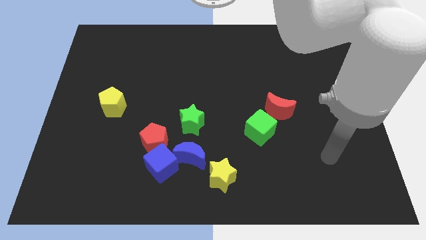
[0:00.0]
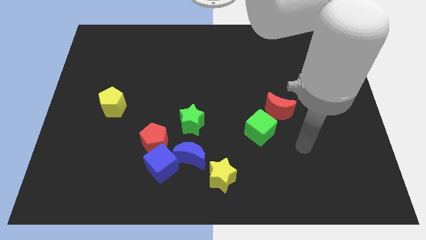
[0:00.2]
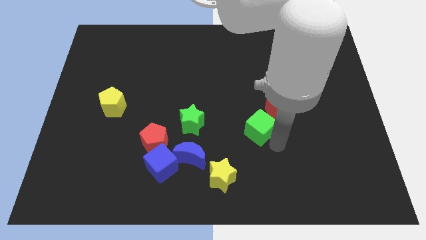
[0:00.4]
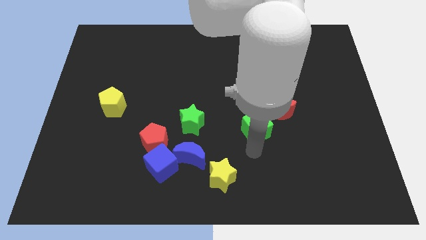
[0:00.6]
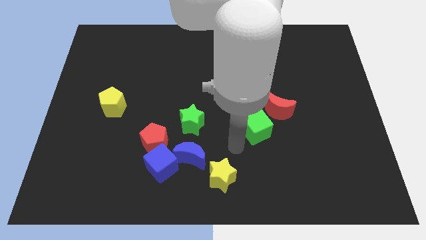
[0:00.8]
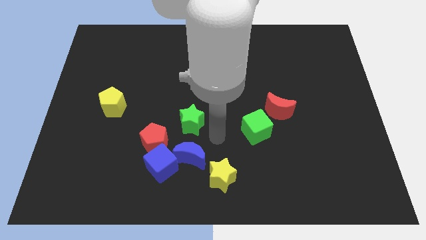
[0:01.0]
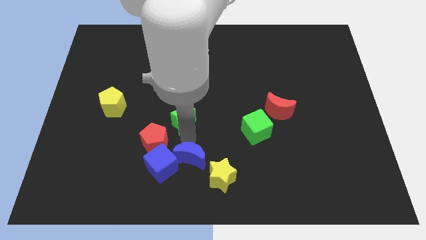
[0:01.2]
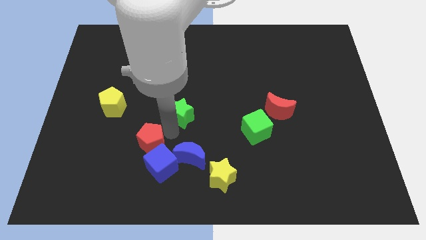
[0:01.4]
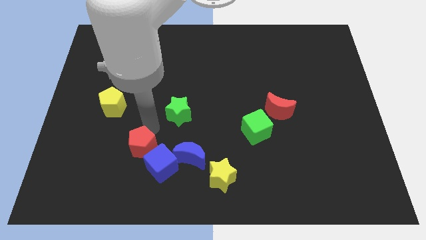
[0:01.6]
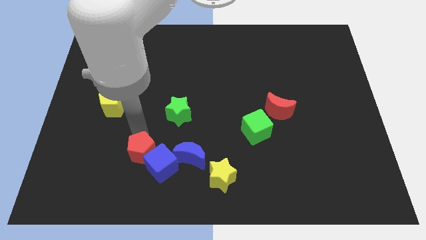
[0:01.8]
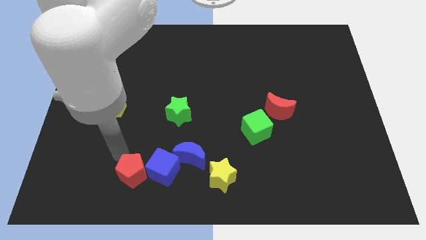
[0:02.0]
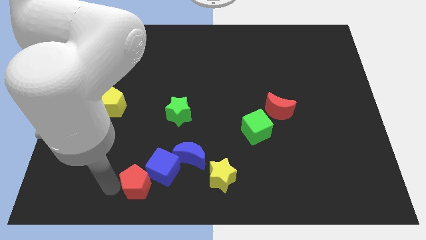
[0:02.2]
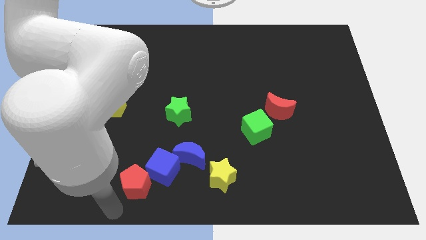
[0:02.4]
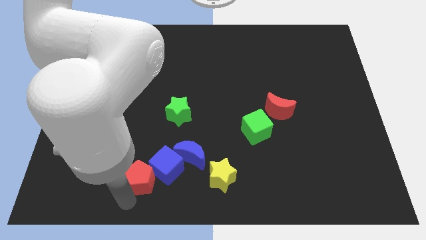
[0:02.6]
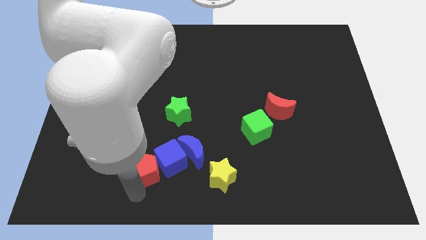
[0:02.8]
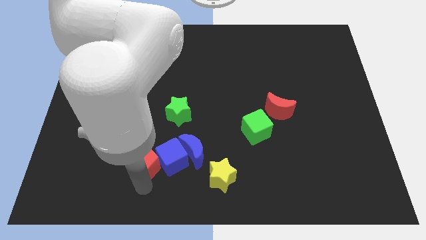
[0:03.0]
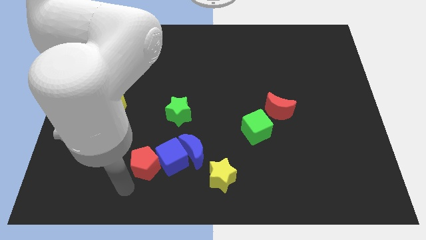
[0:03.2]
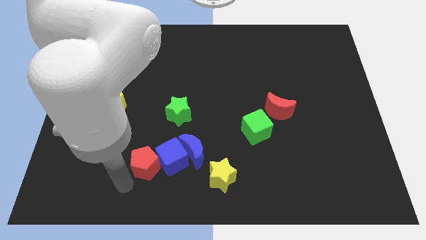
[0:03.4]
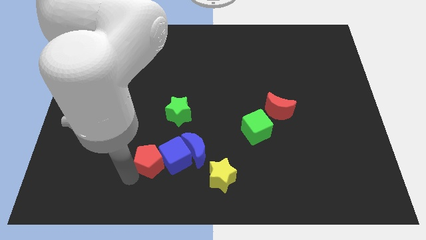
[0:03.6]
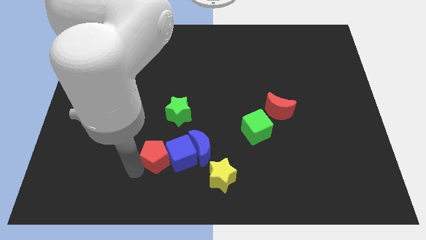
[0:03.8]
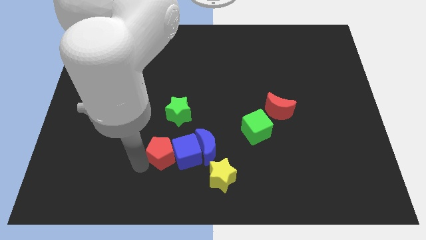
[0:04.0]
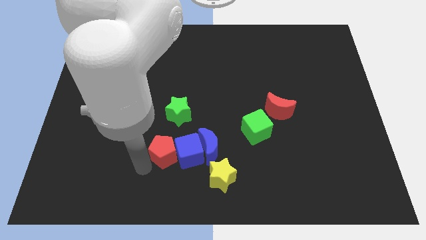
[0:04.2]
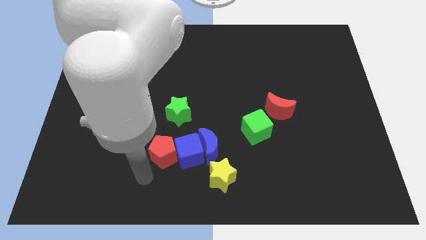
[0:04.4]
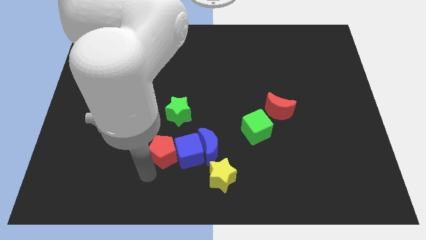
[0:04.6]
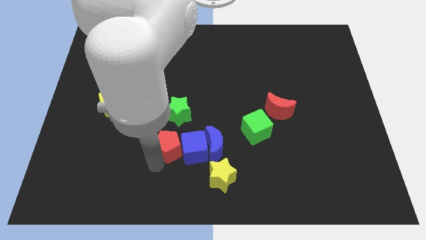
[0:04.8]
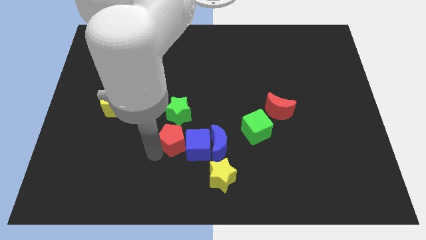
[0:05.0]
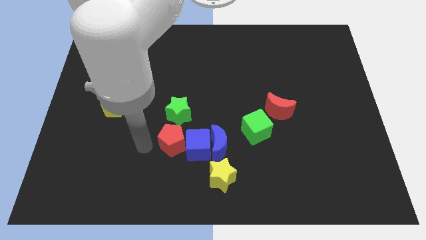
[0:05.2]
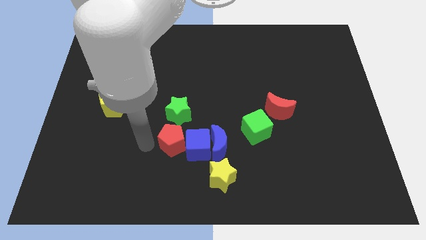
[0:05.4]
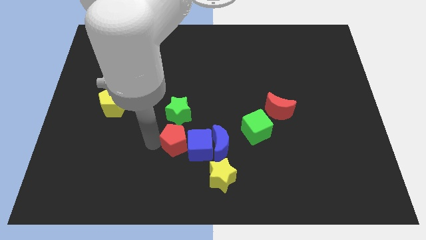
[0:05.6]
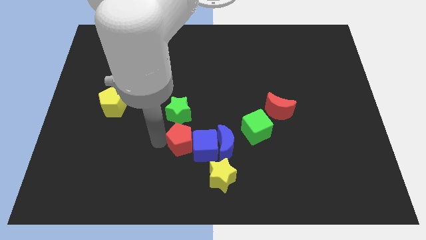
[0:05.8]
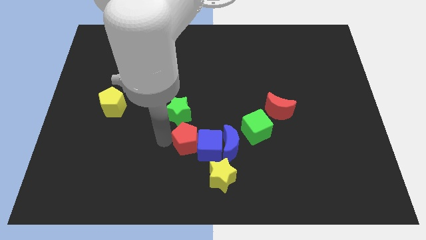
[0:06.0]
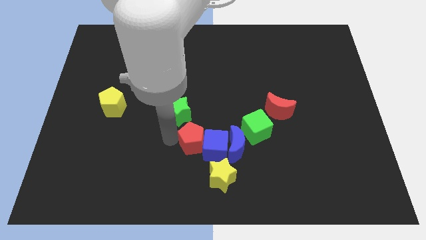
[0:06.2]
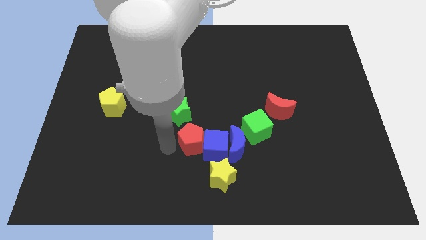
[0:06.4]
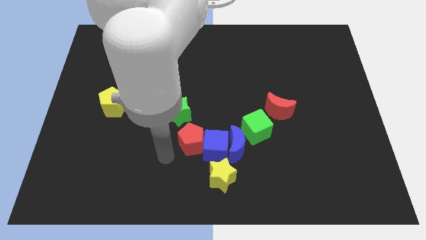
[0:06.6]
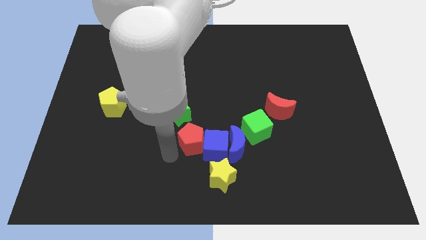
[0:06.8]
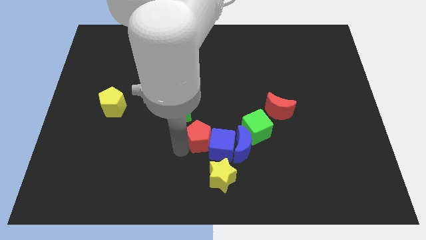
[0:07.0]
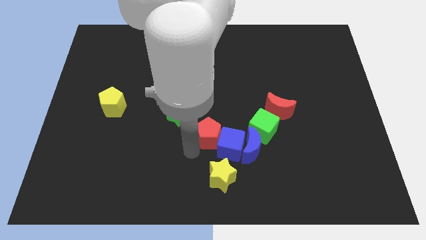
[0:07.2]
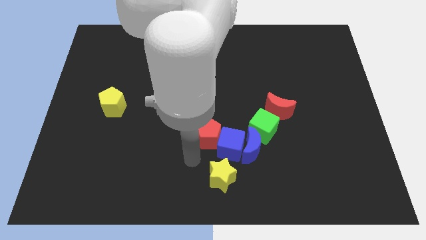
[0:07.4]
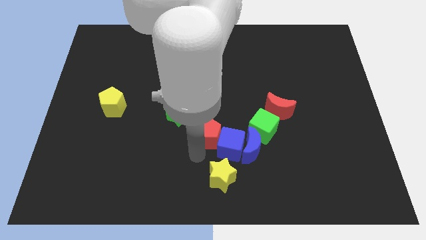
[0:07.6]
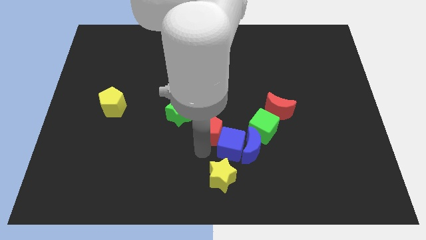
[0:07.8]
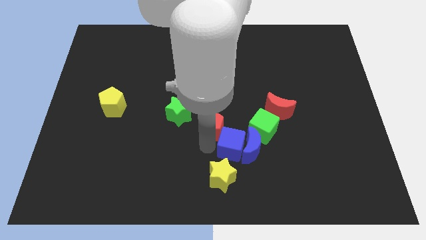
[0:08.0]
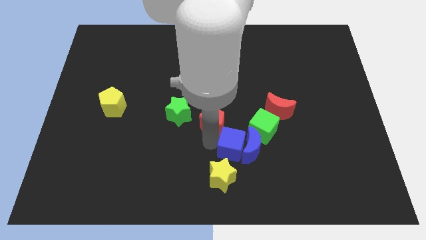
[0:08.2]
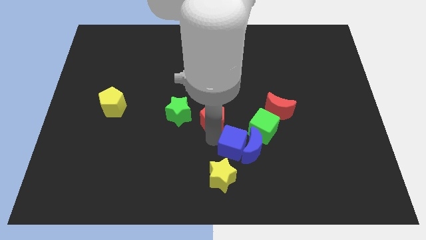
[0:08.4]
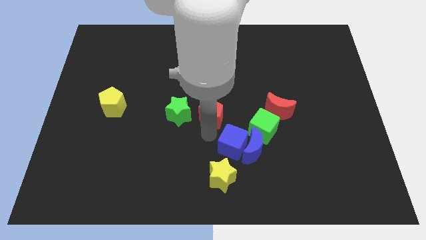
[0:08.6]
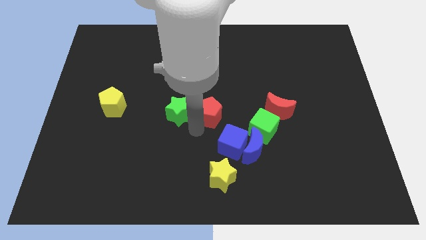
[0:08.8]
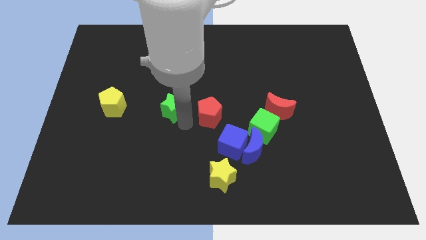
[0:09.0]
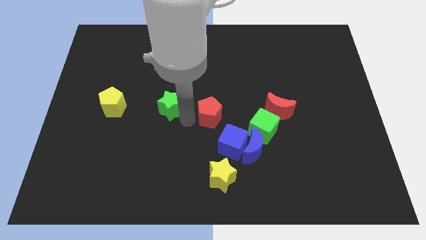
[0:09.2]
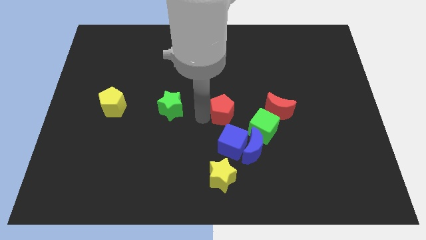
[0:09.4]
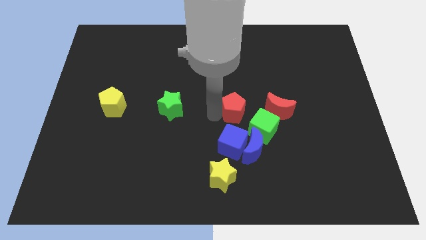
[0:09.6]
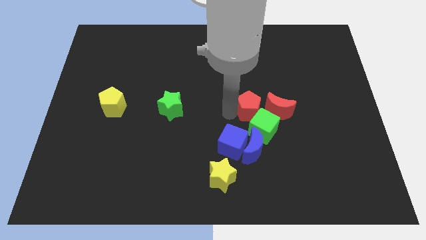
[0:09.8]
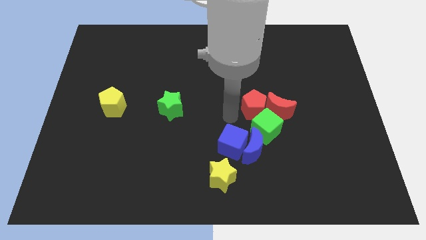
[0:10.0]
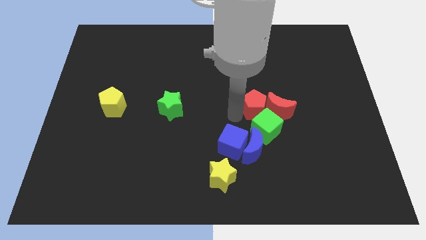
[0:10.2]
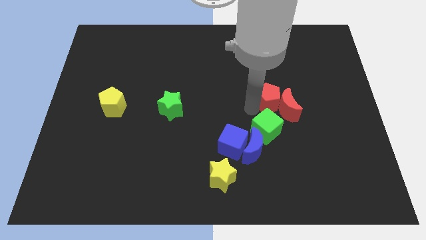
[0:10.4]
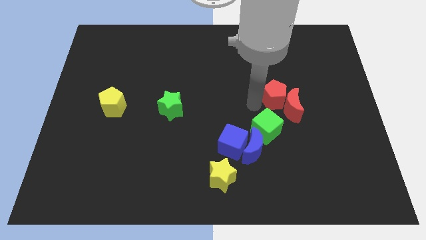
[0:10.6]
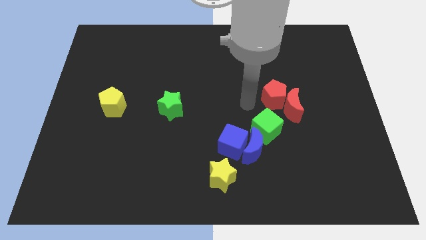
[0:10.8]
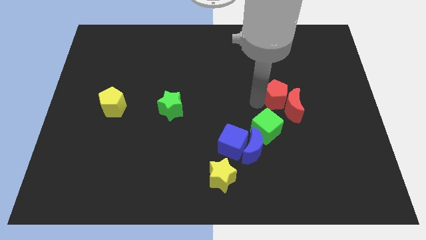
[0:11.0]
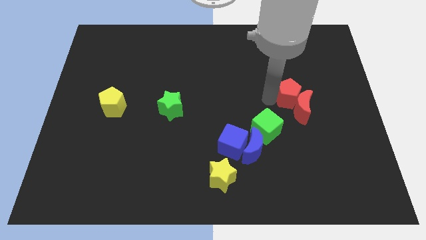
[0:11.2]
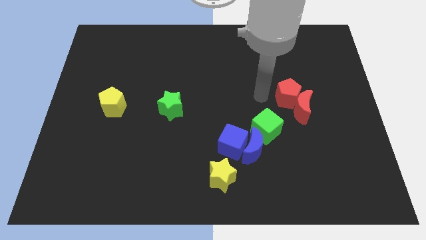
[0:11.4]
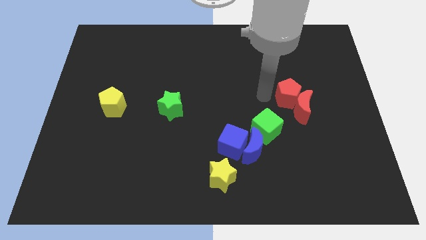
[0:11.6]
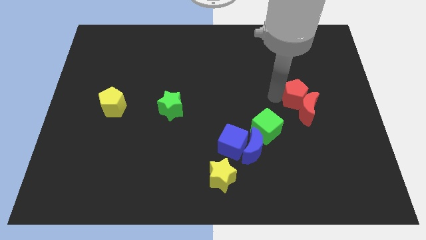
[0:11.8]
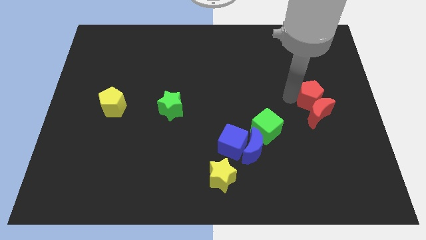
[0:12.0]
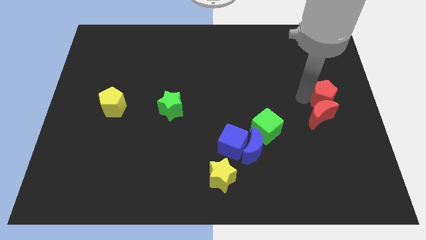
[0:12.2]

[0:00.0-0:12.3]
slide the red pentagon to the right side of the board

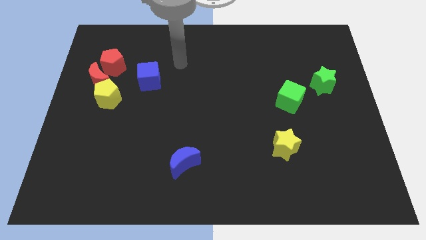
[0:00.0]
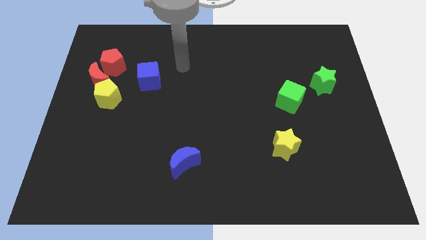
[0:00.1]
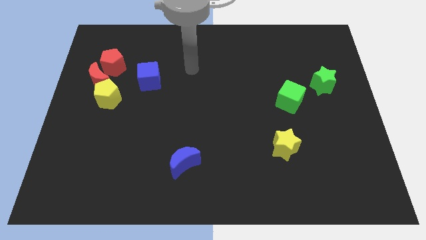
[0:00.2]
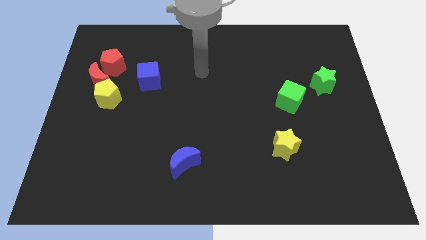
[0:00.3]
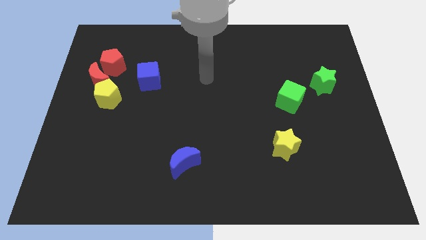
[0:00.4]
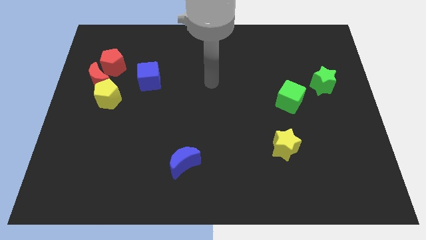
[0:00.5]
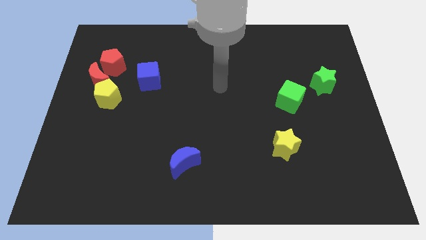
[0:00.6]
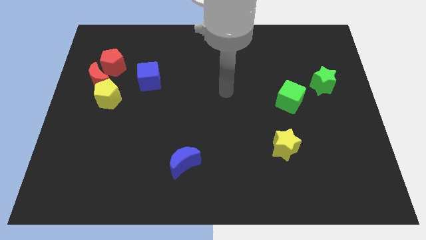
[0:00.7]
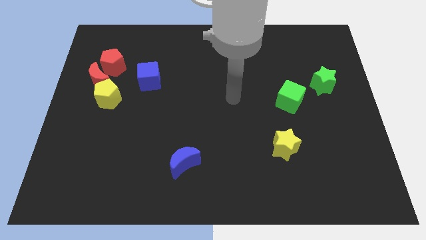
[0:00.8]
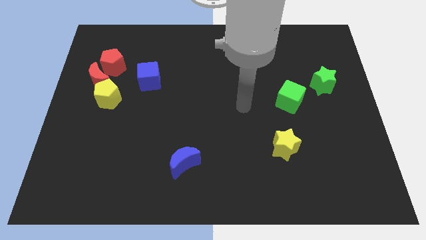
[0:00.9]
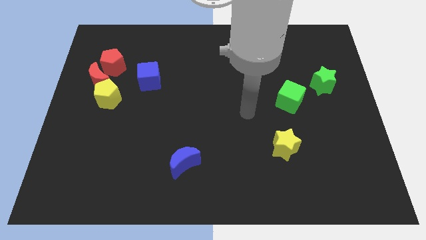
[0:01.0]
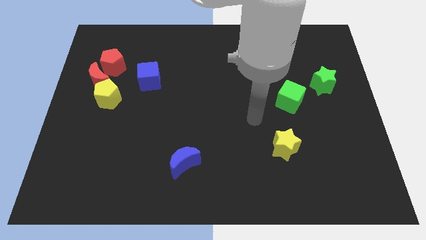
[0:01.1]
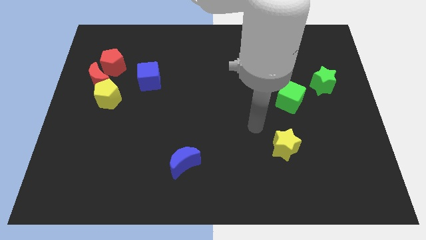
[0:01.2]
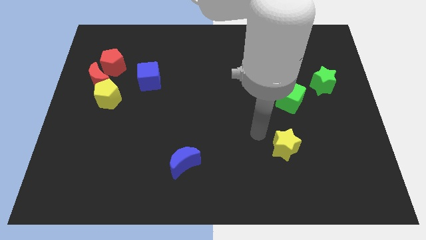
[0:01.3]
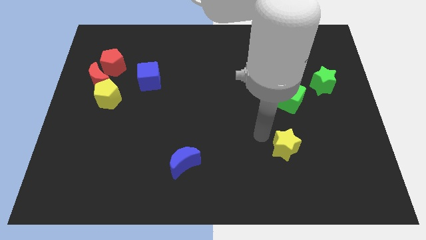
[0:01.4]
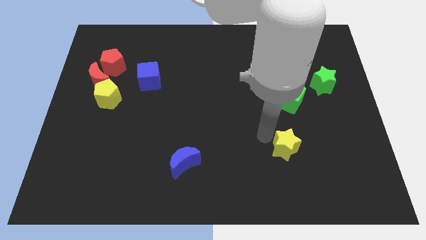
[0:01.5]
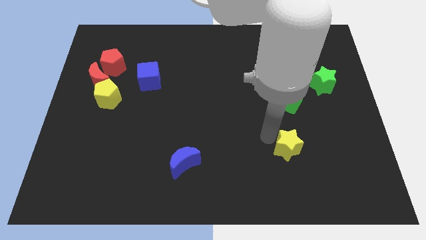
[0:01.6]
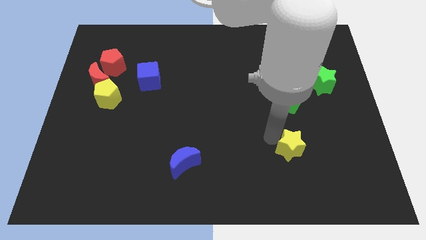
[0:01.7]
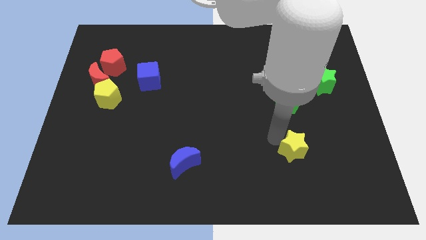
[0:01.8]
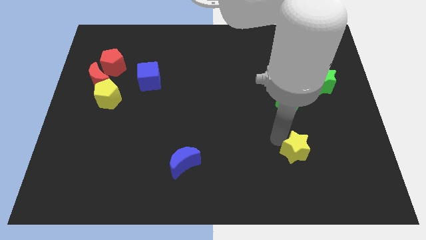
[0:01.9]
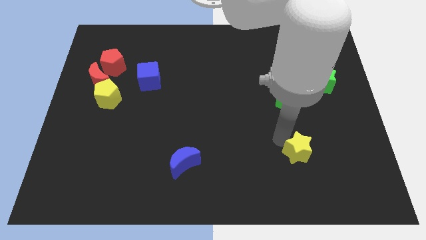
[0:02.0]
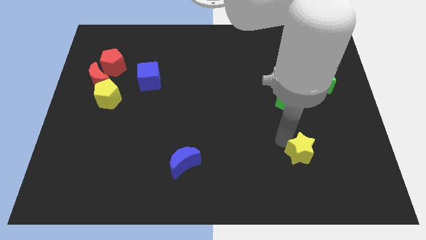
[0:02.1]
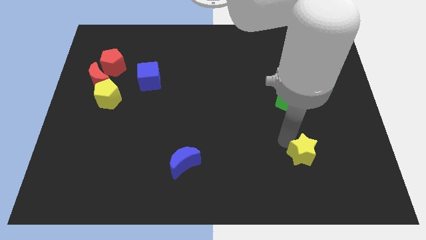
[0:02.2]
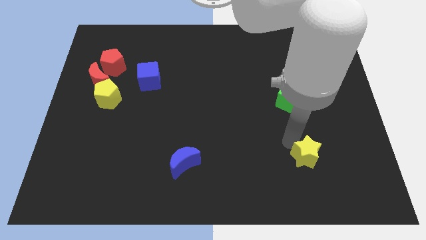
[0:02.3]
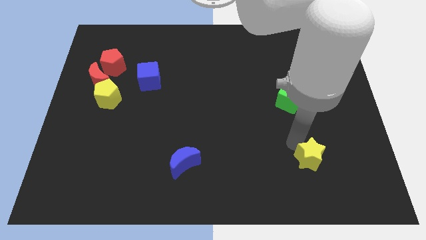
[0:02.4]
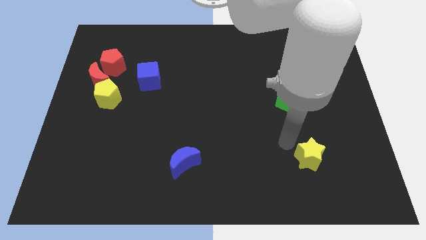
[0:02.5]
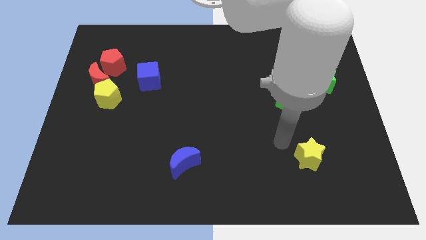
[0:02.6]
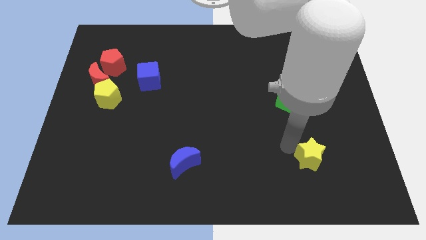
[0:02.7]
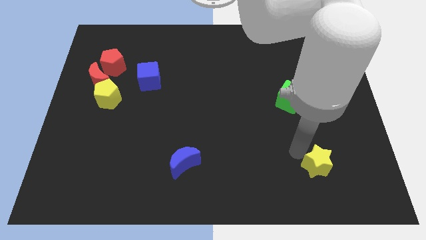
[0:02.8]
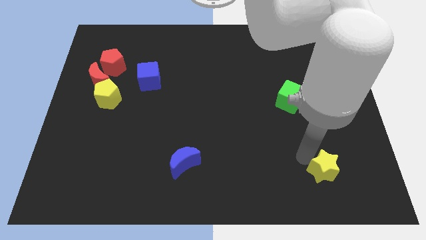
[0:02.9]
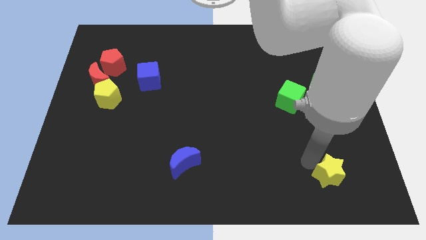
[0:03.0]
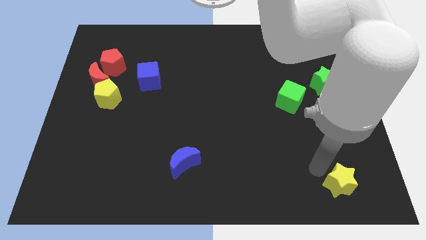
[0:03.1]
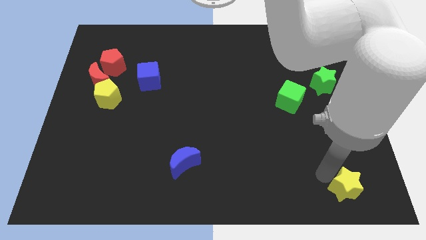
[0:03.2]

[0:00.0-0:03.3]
push the yellow star to the bottom right of the board
